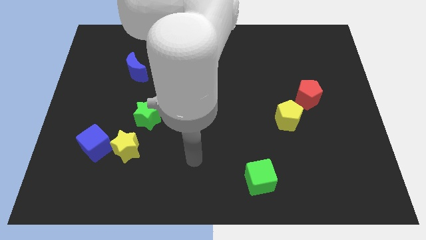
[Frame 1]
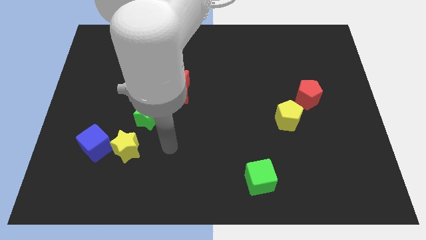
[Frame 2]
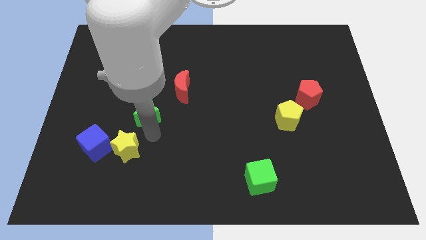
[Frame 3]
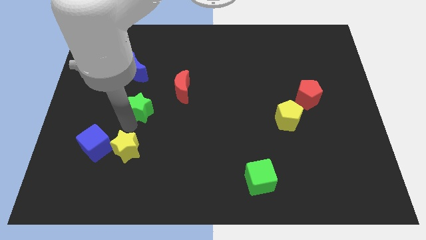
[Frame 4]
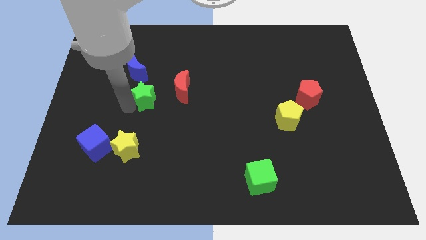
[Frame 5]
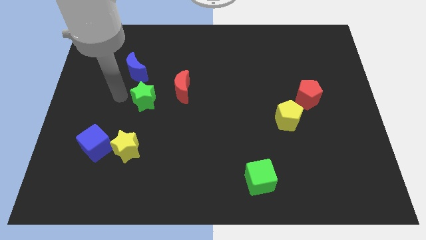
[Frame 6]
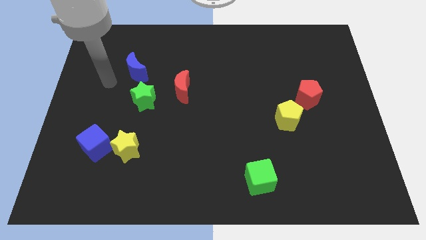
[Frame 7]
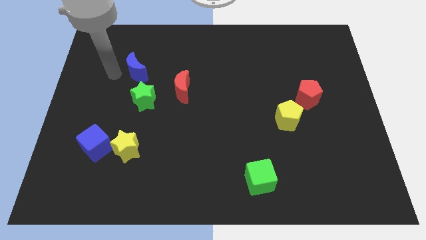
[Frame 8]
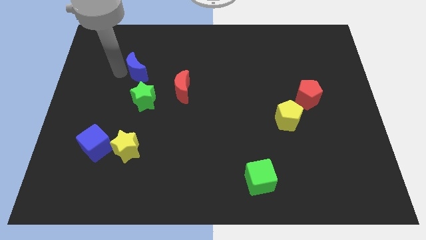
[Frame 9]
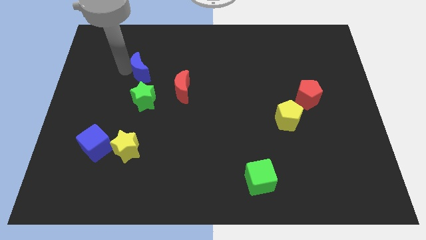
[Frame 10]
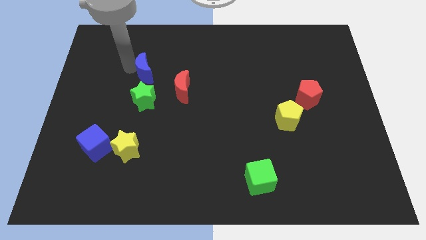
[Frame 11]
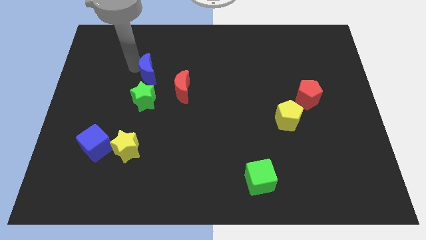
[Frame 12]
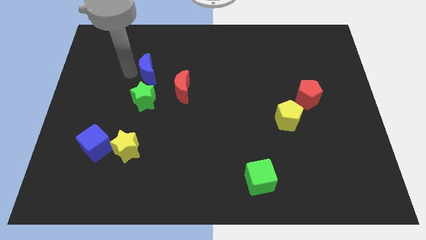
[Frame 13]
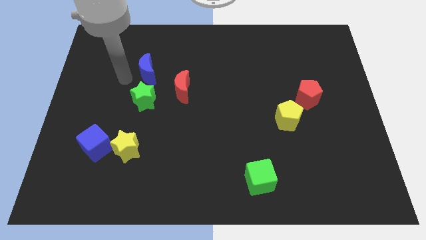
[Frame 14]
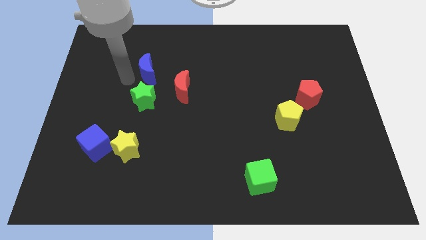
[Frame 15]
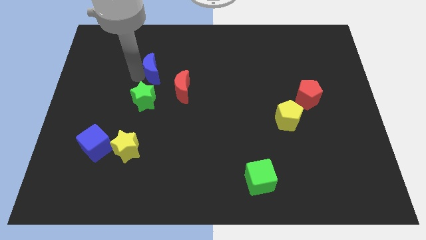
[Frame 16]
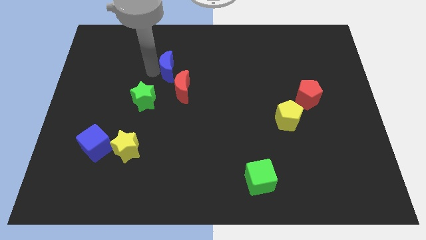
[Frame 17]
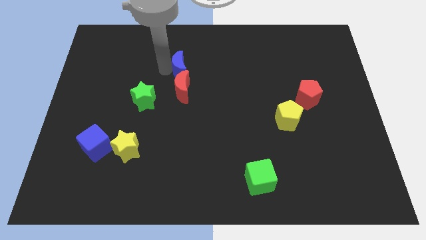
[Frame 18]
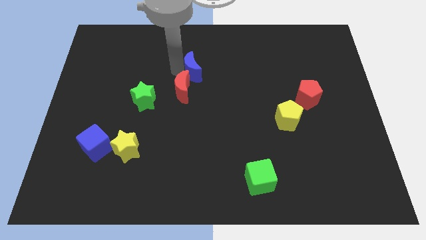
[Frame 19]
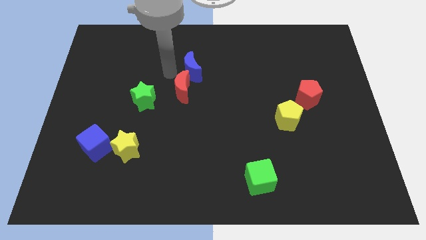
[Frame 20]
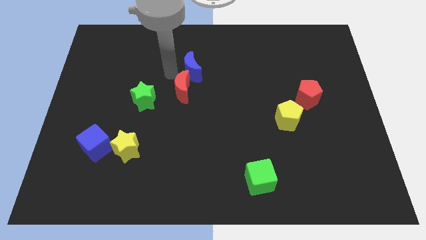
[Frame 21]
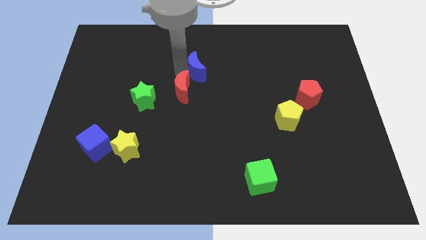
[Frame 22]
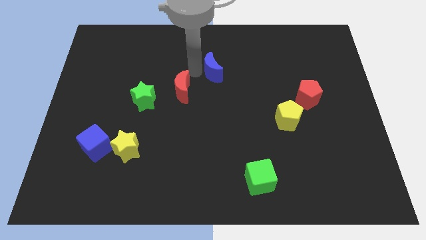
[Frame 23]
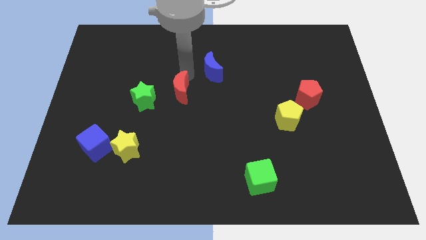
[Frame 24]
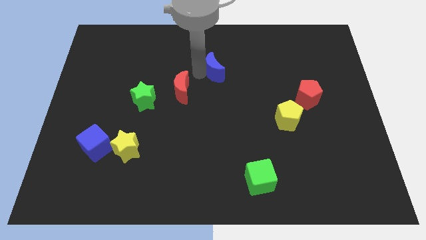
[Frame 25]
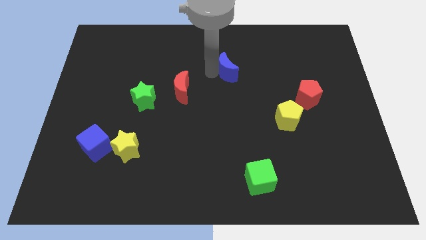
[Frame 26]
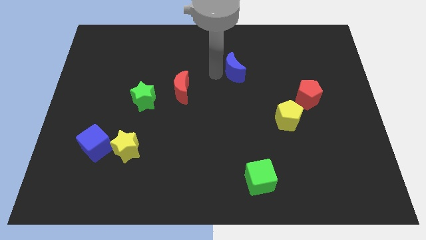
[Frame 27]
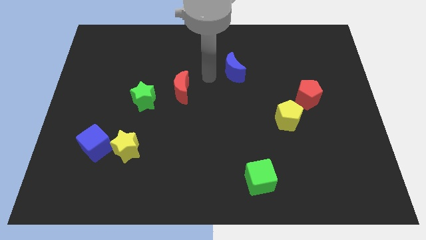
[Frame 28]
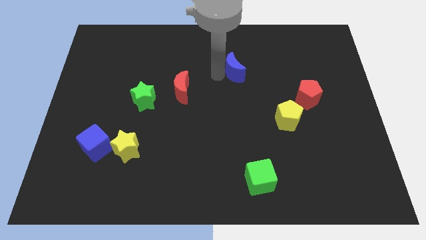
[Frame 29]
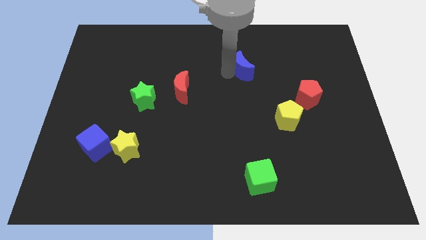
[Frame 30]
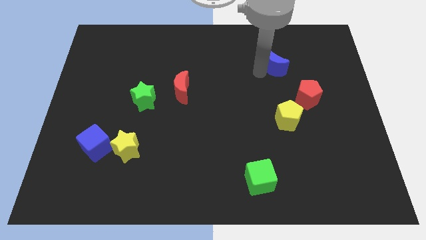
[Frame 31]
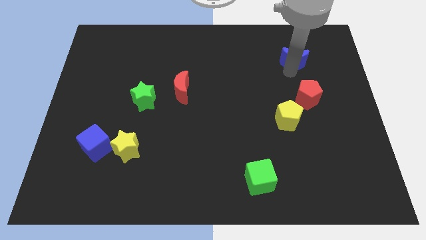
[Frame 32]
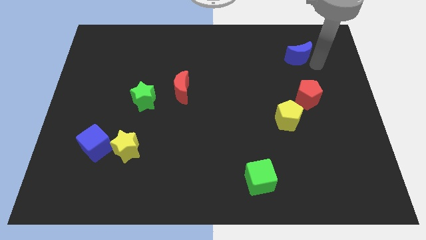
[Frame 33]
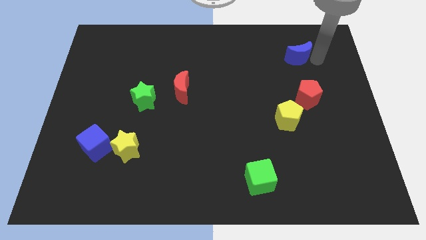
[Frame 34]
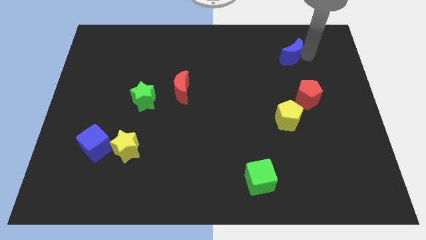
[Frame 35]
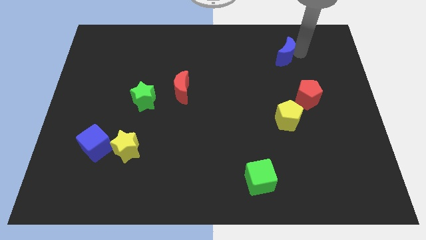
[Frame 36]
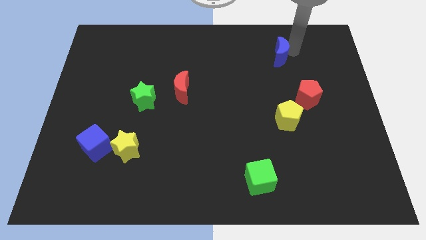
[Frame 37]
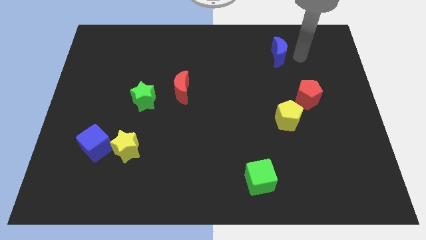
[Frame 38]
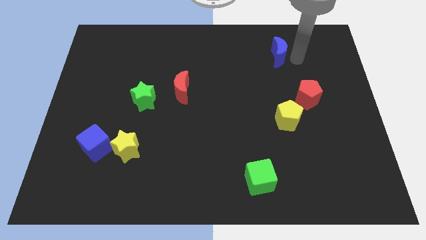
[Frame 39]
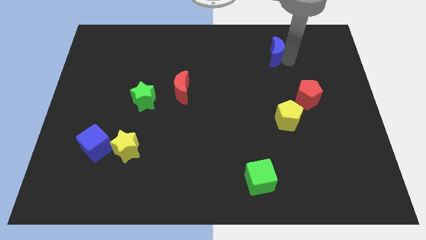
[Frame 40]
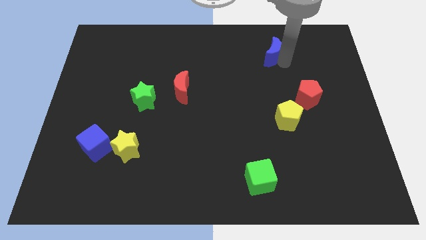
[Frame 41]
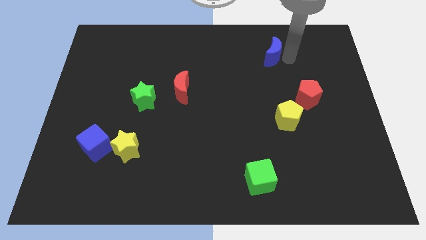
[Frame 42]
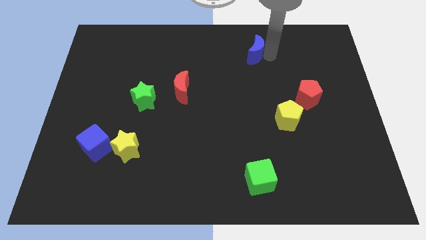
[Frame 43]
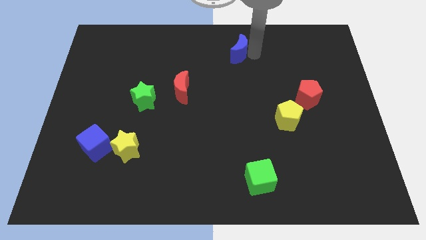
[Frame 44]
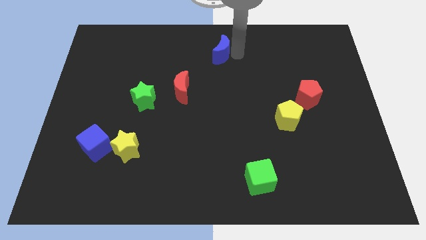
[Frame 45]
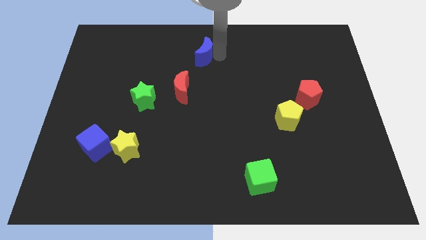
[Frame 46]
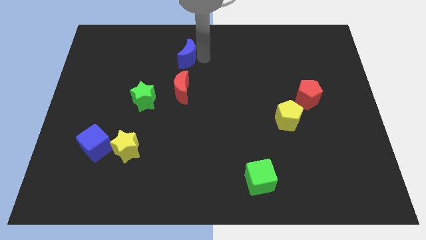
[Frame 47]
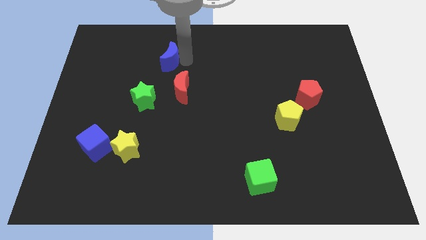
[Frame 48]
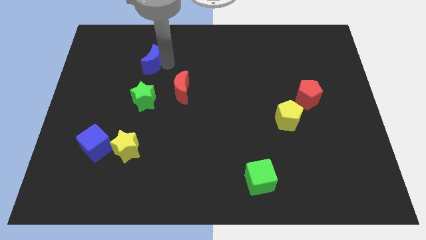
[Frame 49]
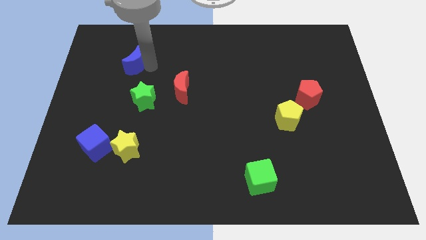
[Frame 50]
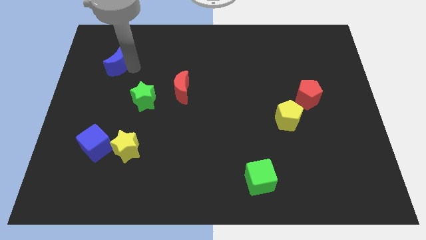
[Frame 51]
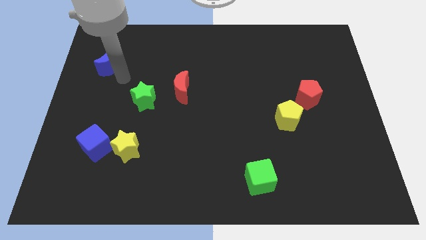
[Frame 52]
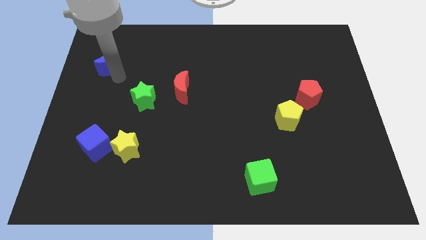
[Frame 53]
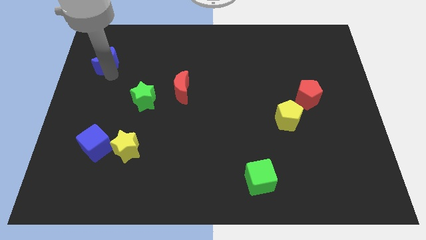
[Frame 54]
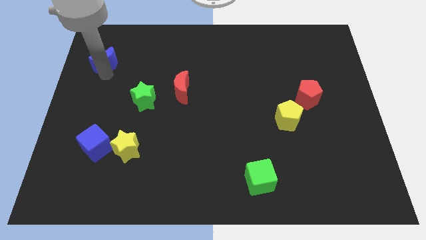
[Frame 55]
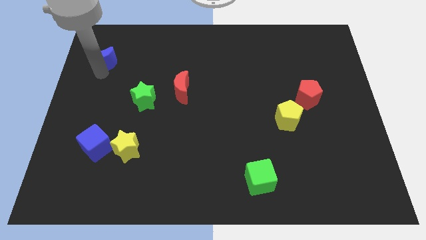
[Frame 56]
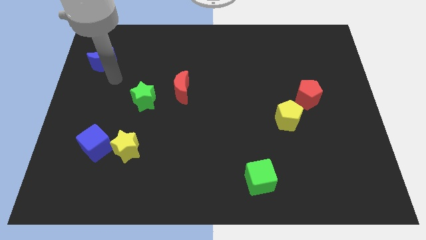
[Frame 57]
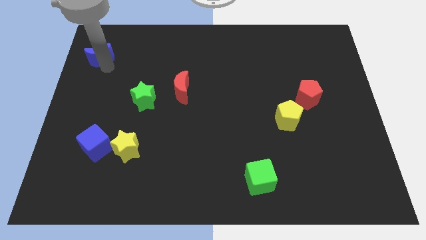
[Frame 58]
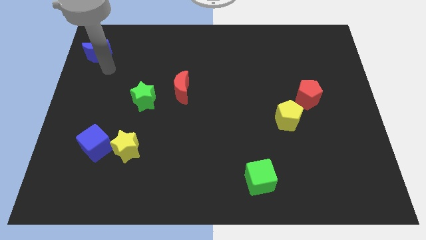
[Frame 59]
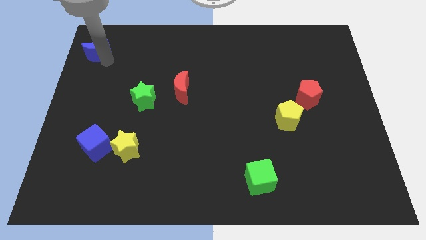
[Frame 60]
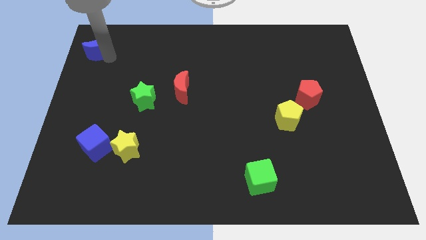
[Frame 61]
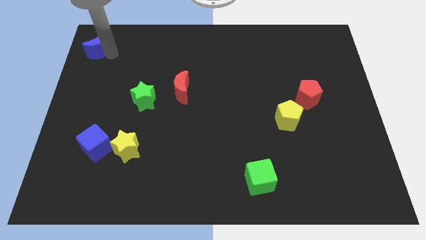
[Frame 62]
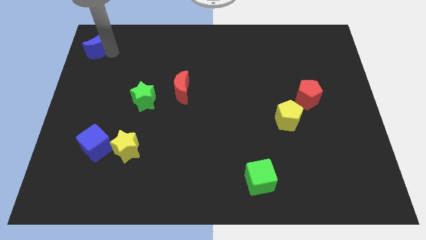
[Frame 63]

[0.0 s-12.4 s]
move the blue moon to the top left
